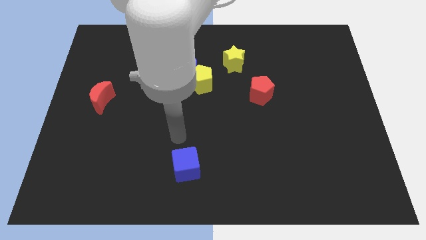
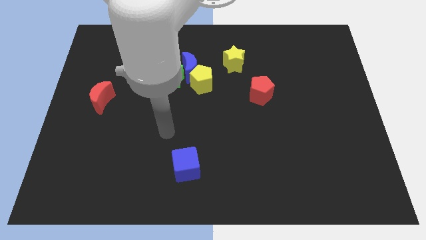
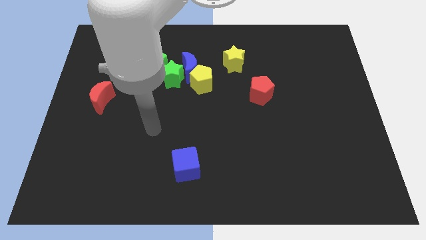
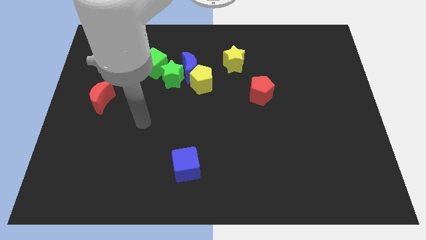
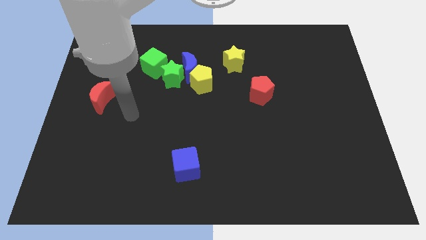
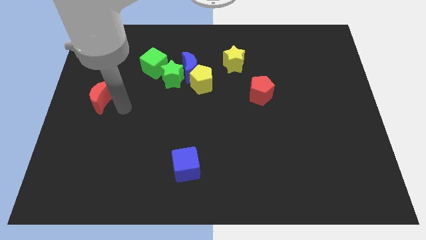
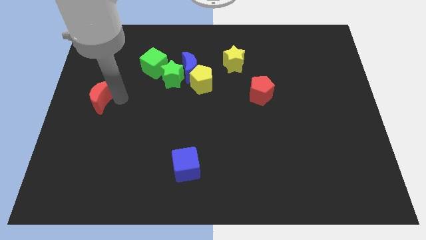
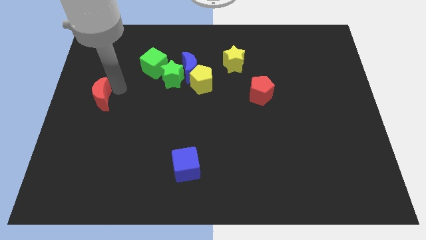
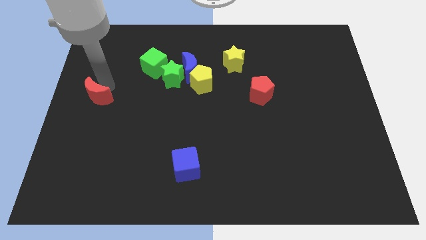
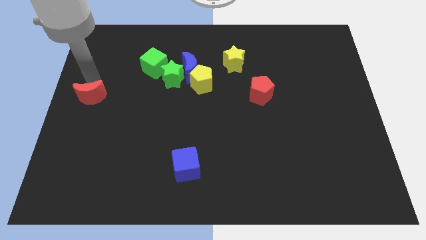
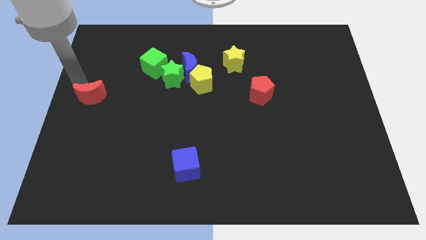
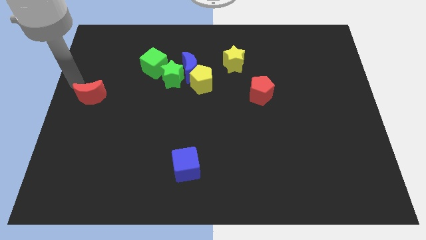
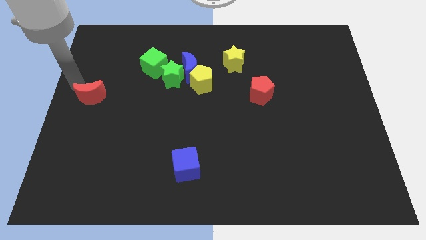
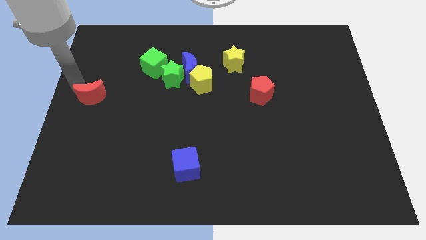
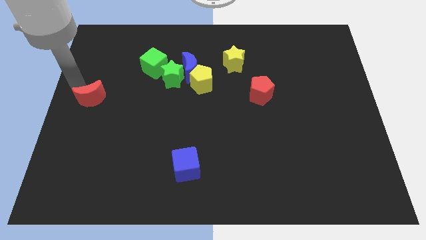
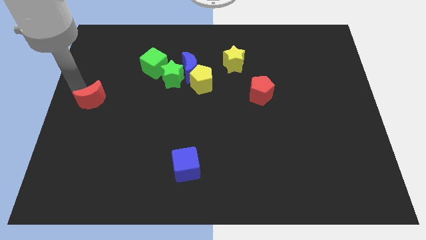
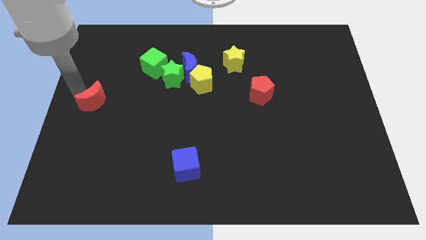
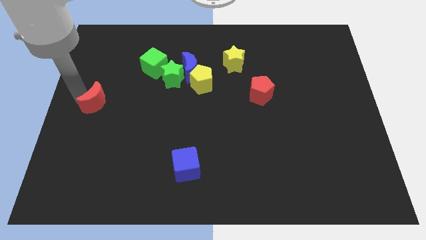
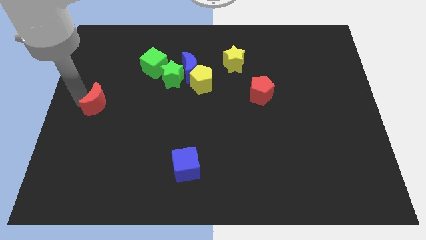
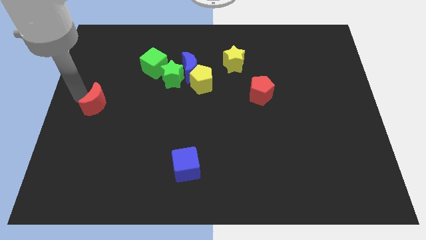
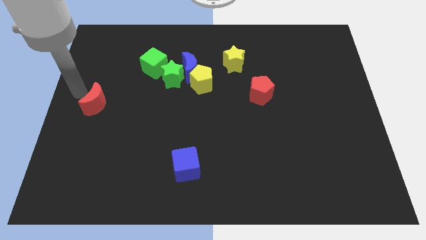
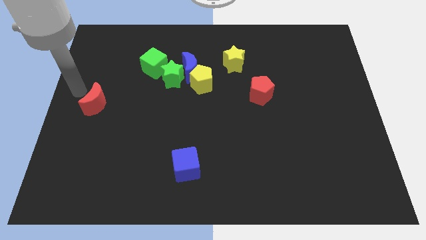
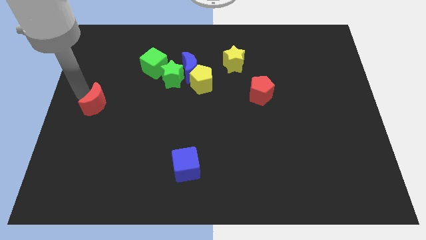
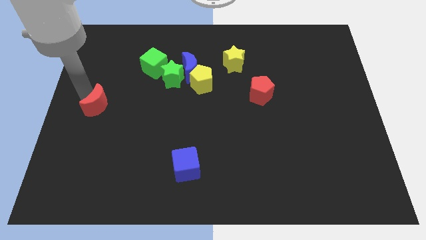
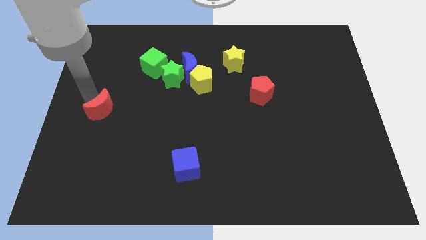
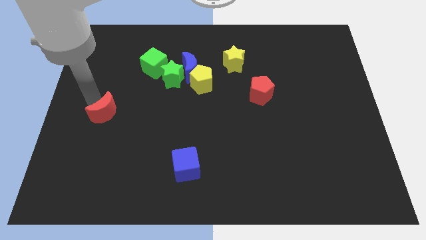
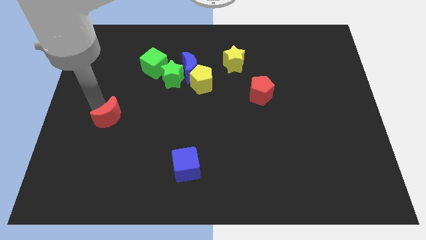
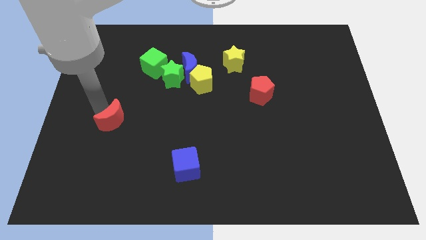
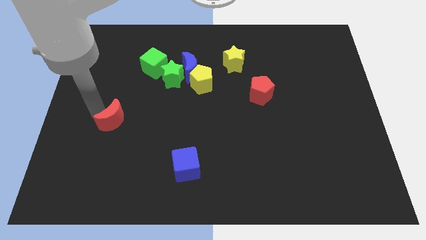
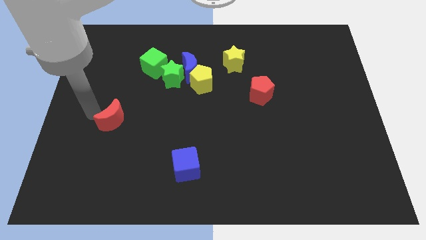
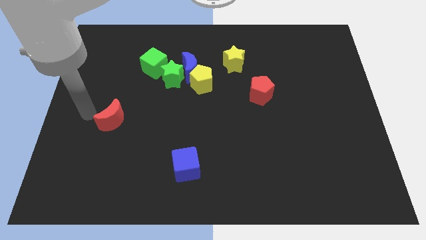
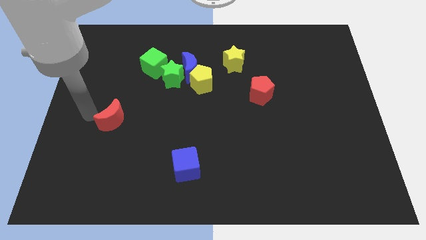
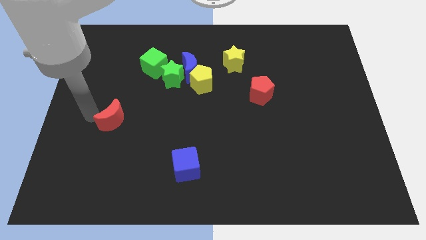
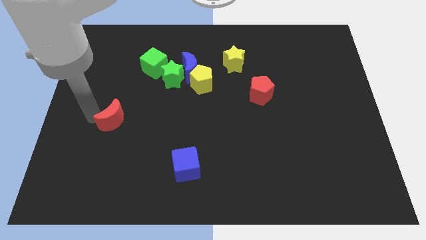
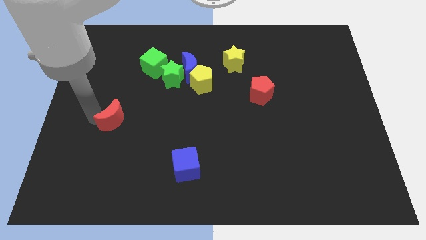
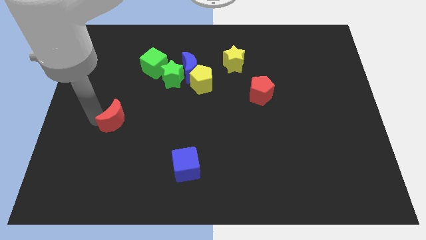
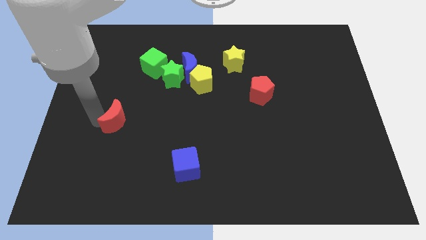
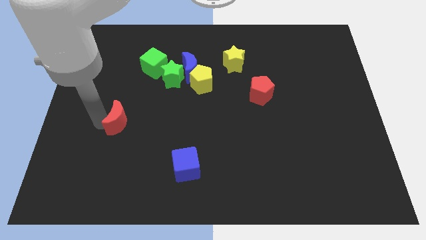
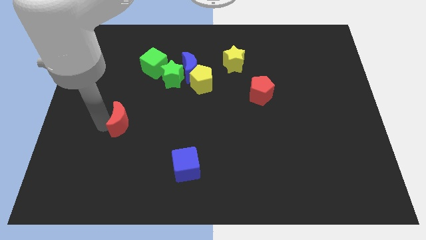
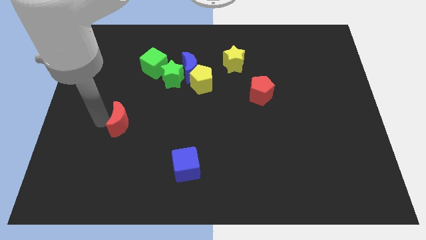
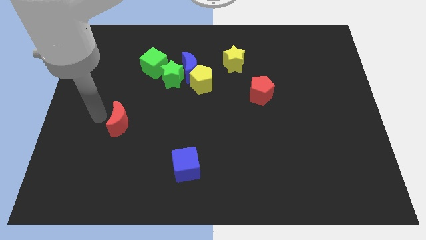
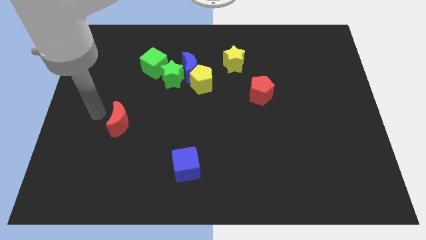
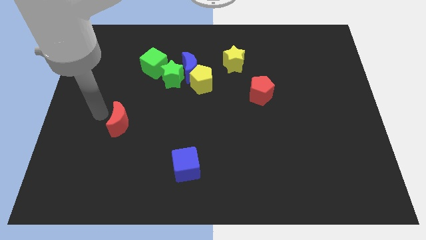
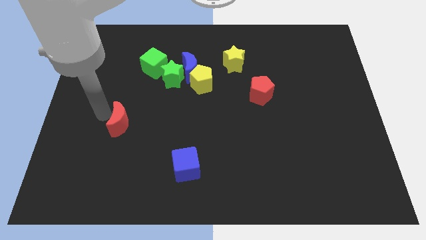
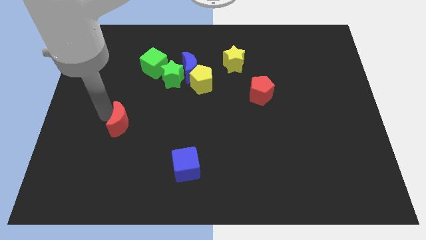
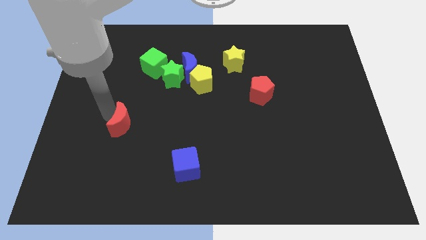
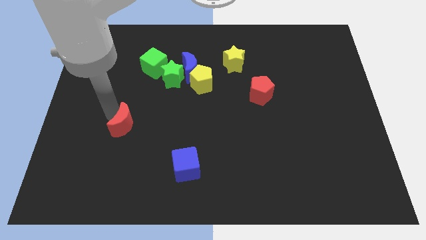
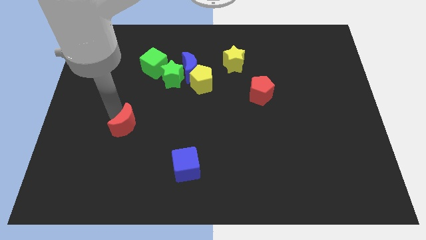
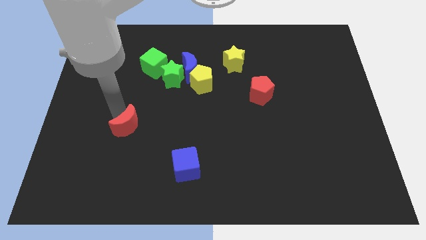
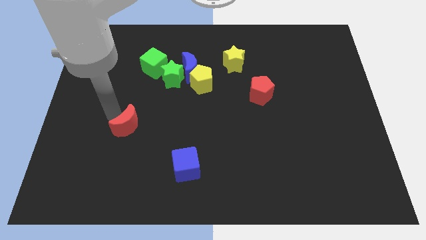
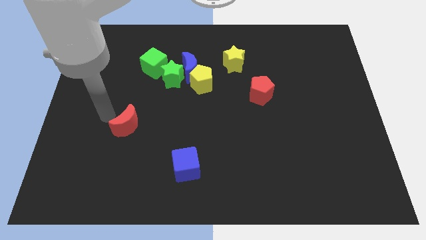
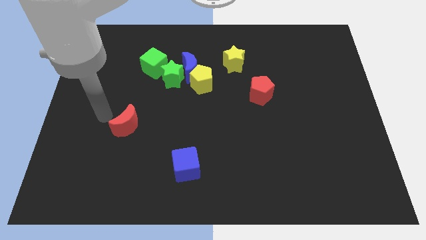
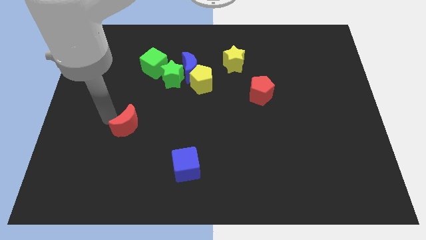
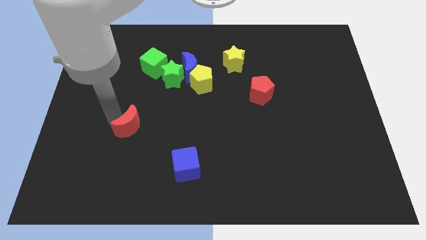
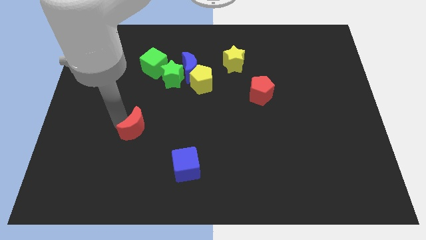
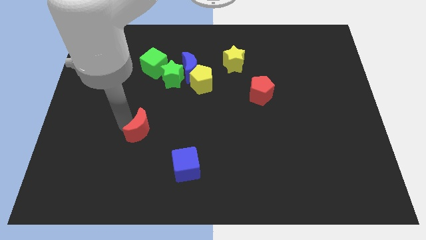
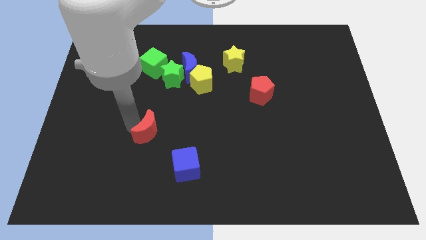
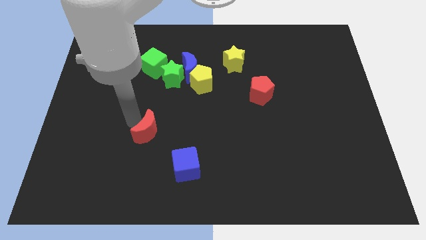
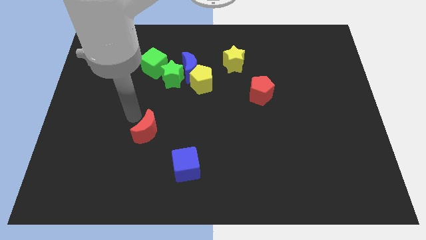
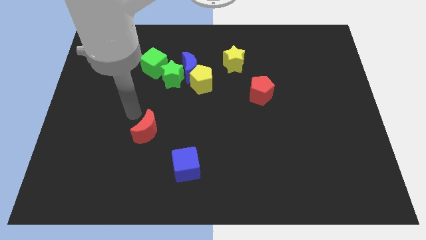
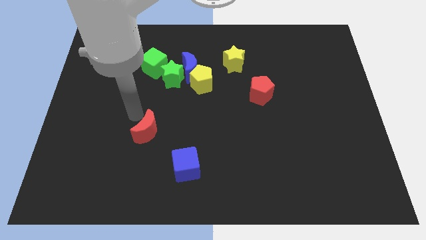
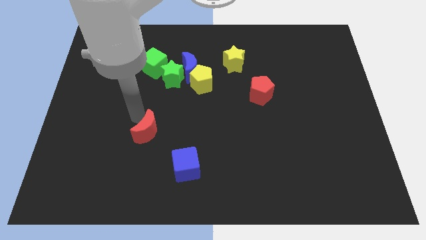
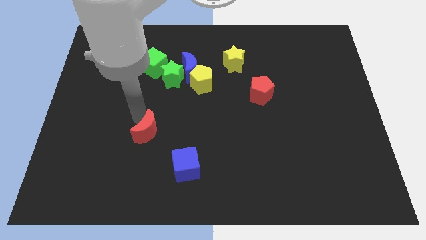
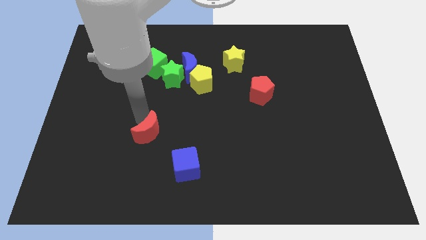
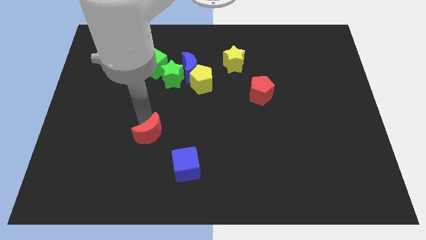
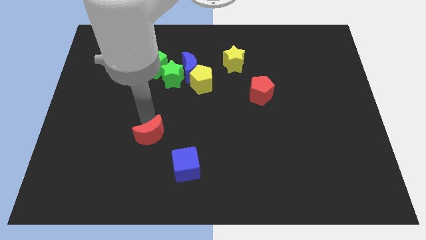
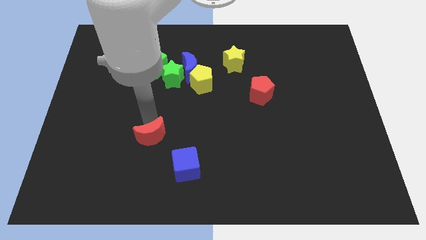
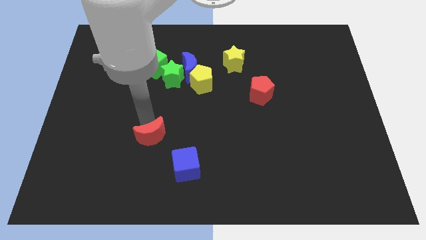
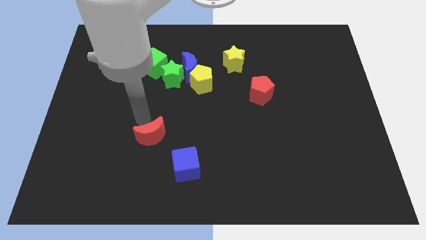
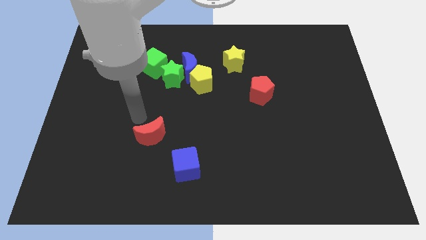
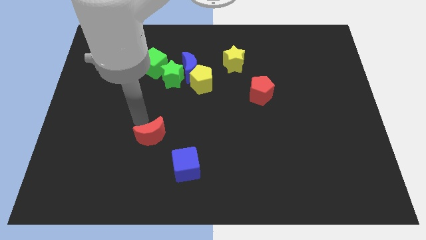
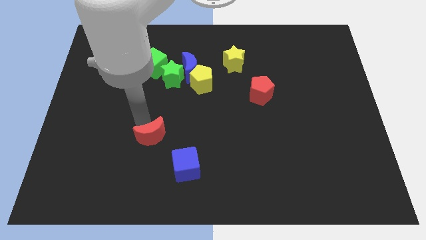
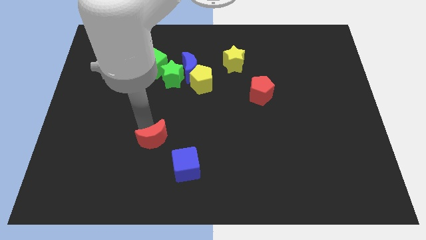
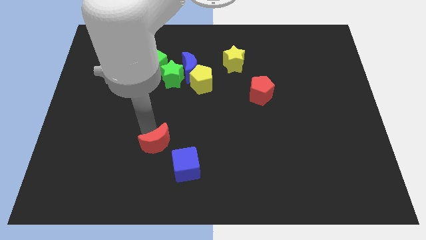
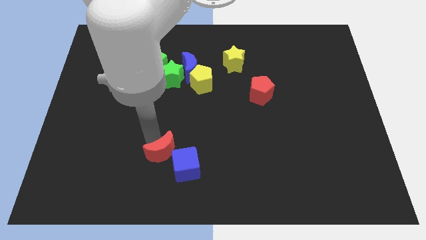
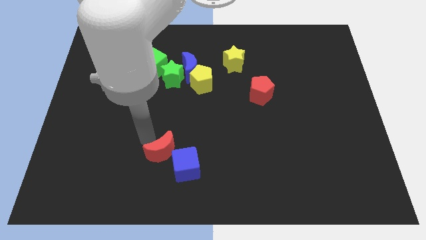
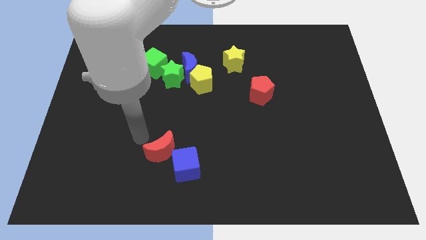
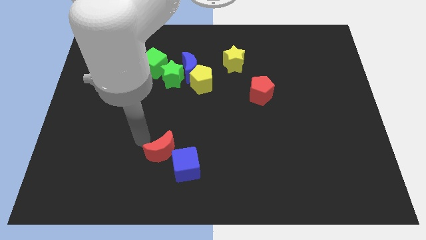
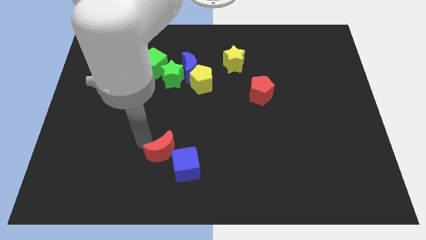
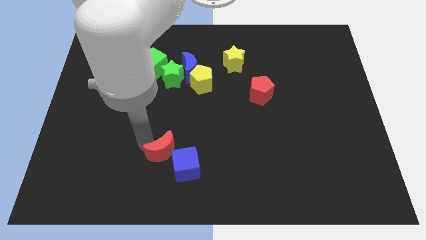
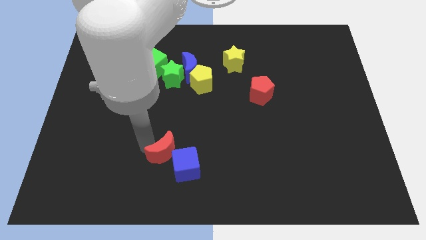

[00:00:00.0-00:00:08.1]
slide the red moon towards the blue cube
